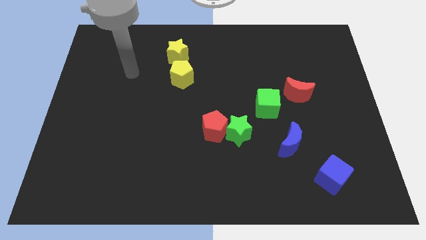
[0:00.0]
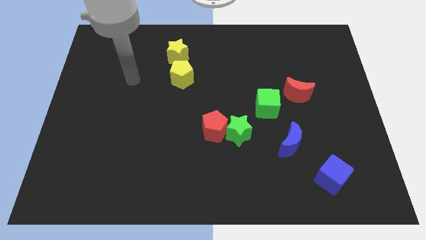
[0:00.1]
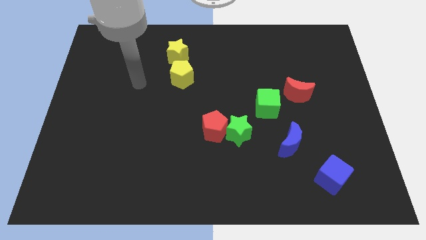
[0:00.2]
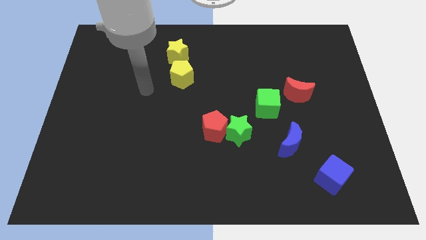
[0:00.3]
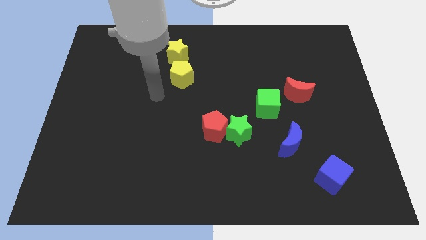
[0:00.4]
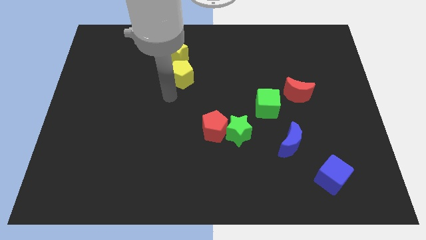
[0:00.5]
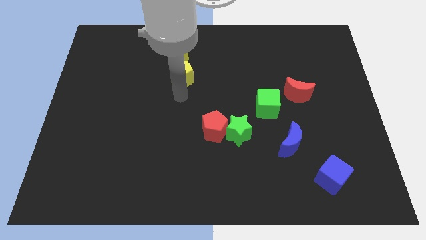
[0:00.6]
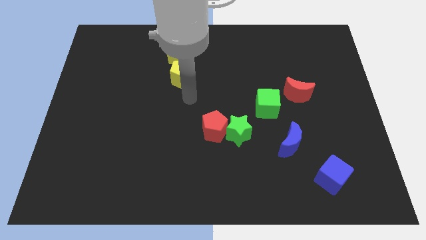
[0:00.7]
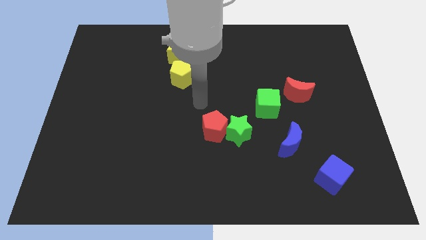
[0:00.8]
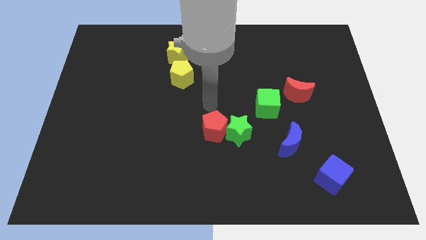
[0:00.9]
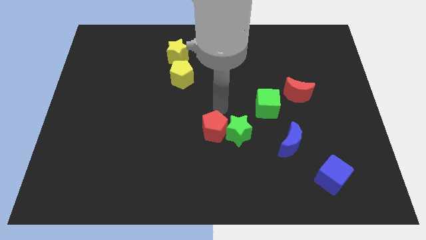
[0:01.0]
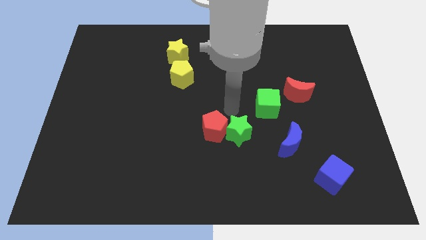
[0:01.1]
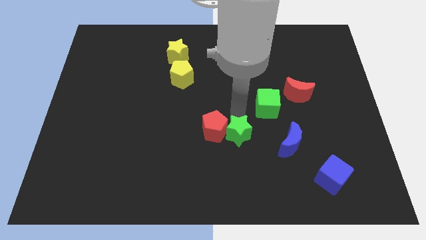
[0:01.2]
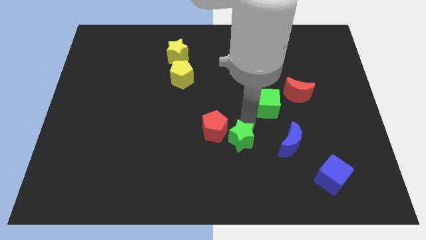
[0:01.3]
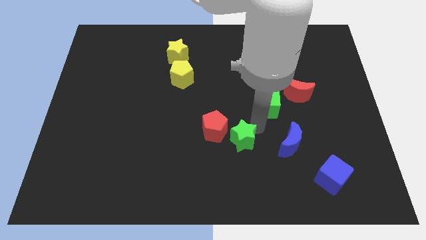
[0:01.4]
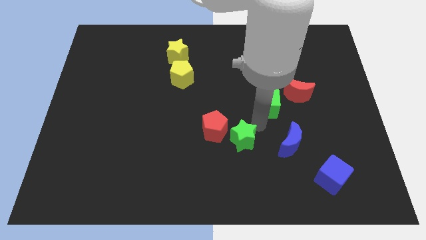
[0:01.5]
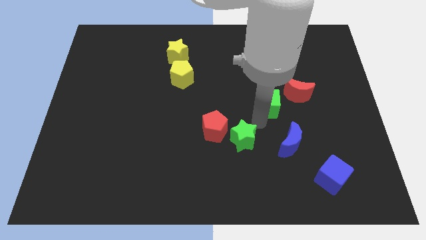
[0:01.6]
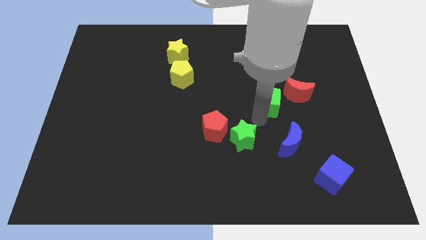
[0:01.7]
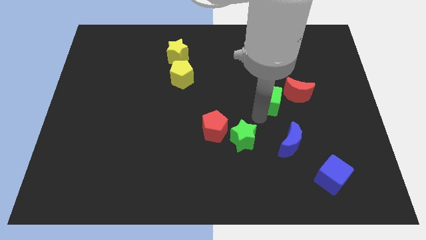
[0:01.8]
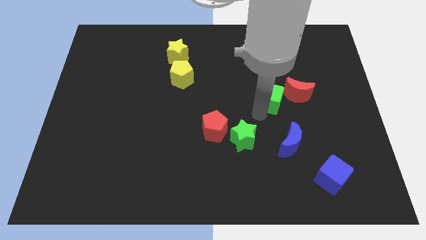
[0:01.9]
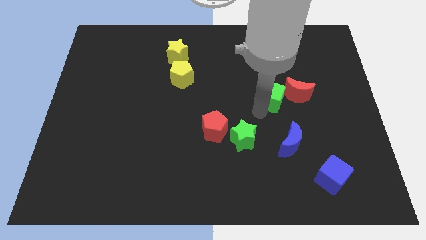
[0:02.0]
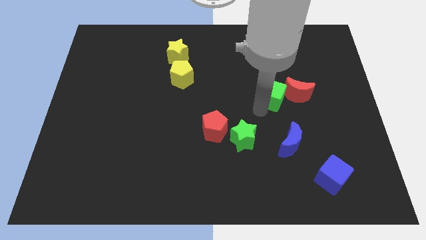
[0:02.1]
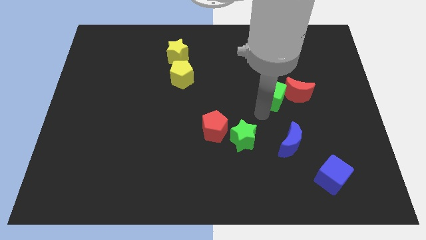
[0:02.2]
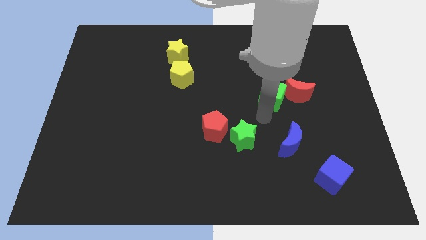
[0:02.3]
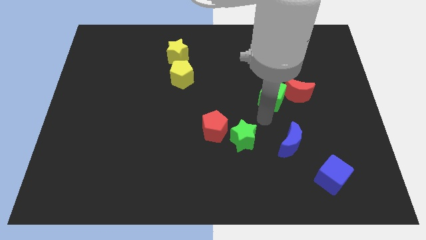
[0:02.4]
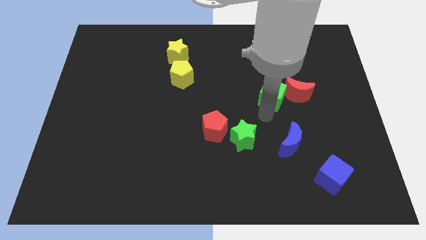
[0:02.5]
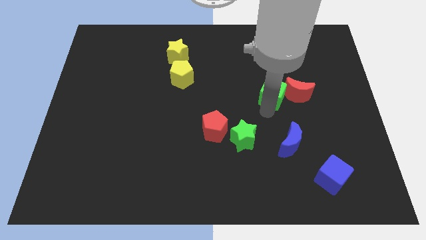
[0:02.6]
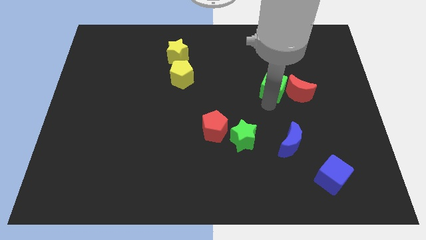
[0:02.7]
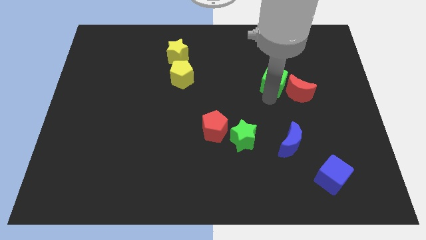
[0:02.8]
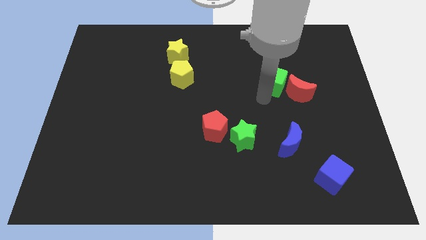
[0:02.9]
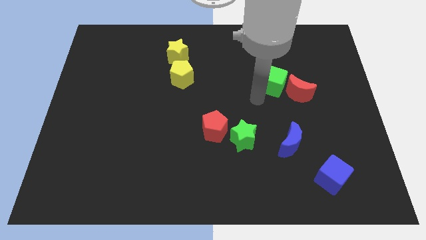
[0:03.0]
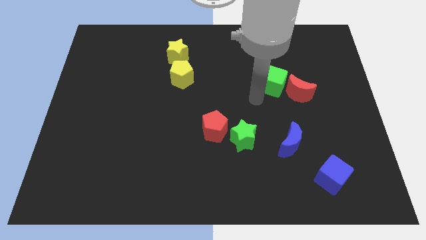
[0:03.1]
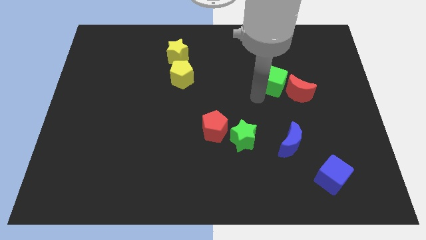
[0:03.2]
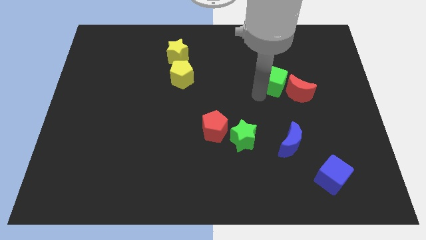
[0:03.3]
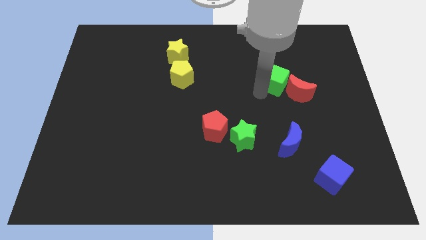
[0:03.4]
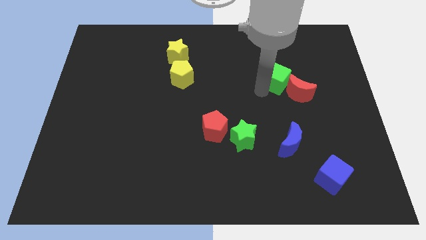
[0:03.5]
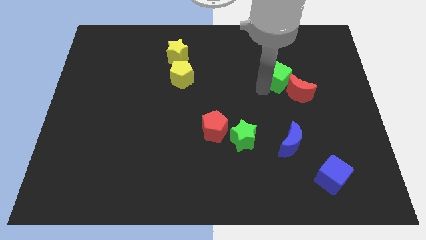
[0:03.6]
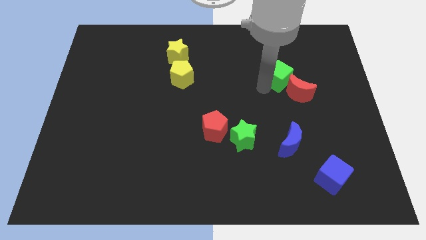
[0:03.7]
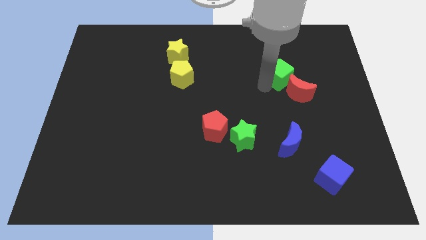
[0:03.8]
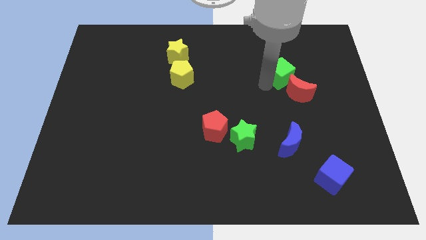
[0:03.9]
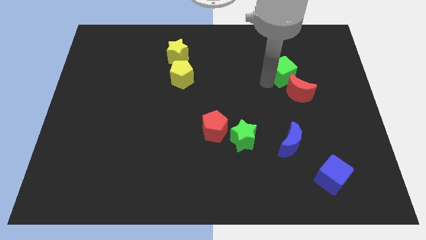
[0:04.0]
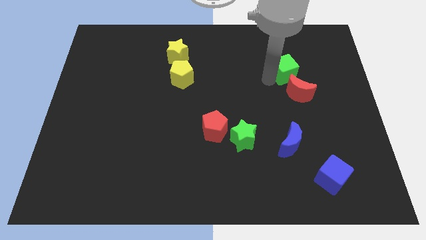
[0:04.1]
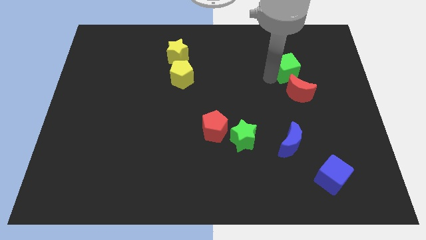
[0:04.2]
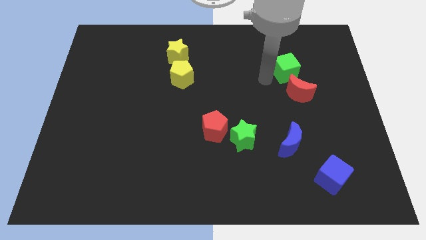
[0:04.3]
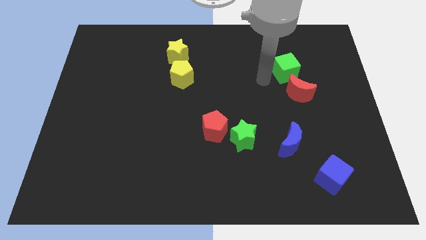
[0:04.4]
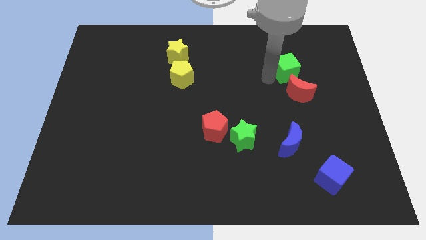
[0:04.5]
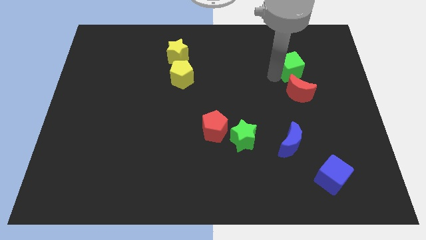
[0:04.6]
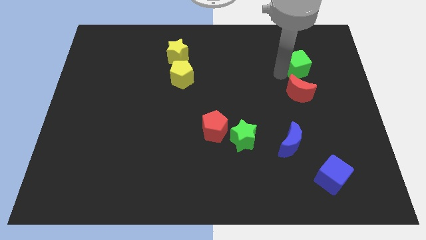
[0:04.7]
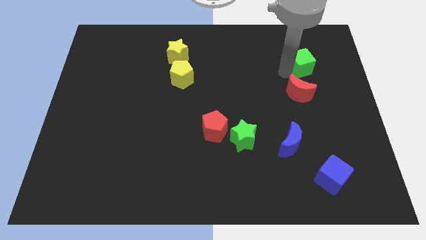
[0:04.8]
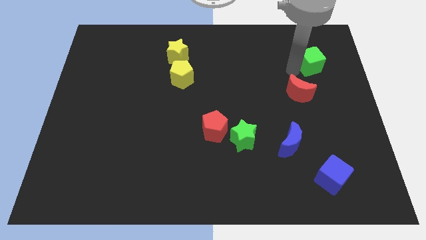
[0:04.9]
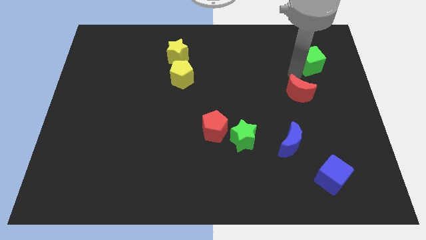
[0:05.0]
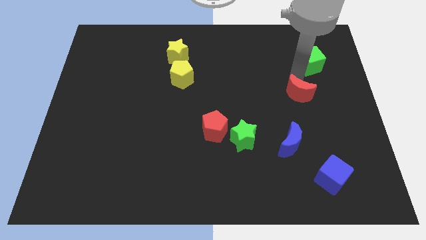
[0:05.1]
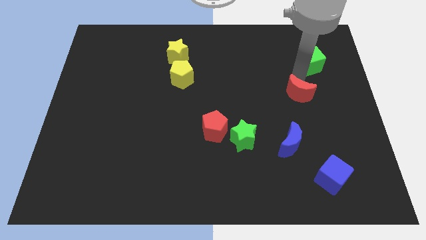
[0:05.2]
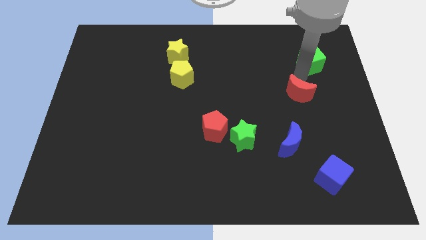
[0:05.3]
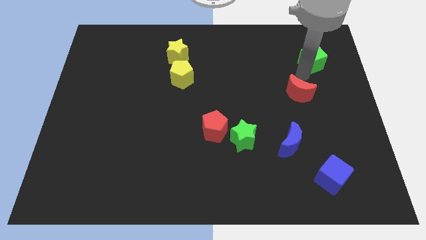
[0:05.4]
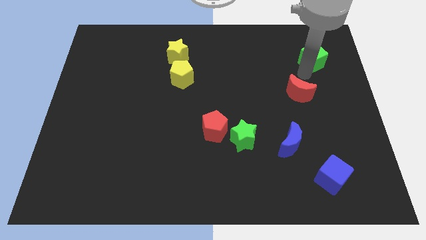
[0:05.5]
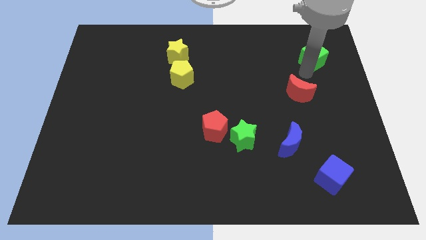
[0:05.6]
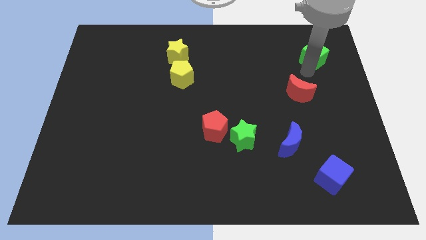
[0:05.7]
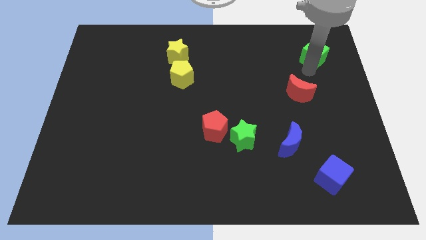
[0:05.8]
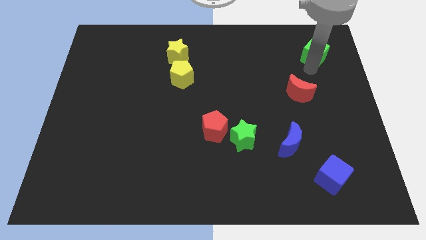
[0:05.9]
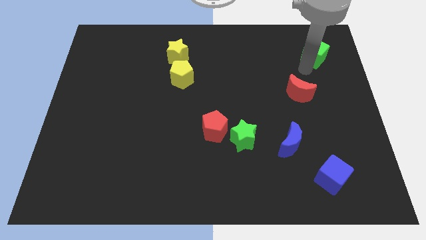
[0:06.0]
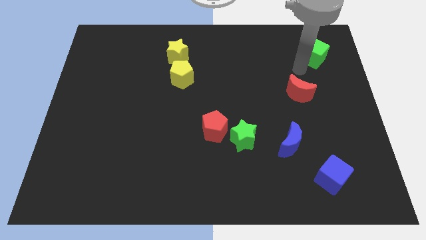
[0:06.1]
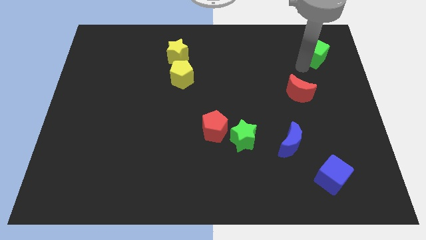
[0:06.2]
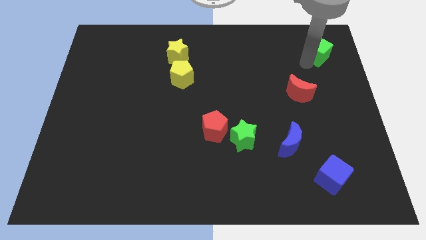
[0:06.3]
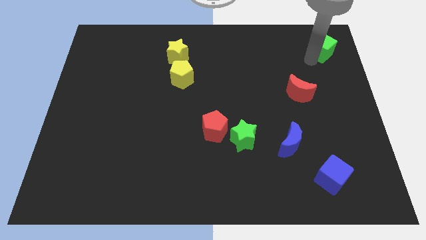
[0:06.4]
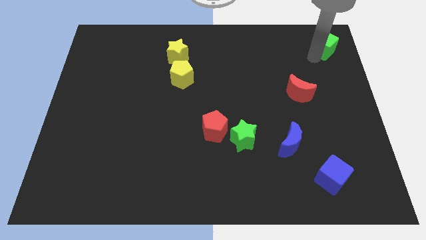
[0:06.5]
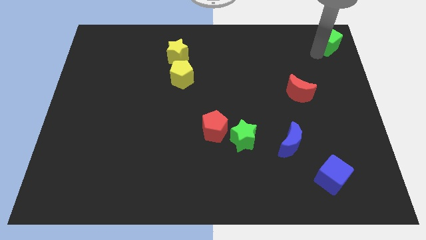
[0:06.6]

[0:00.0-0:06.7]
slide the green cube to the upper right corner
